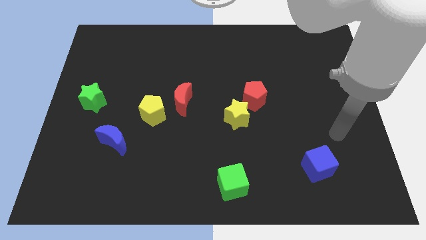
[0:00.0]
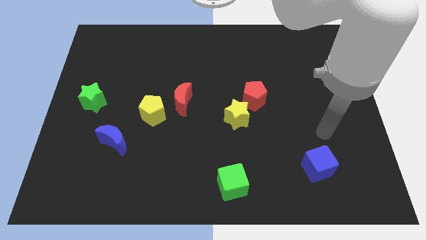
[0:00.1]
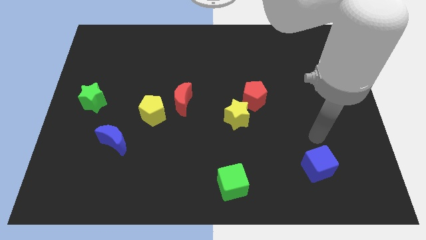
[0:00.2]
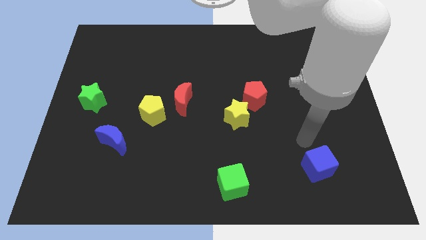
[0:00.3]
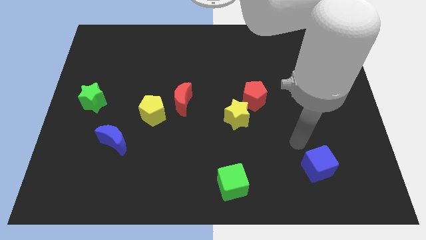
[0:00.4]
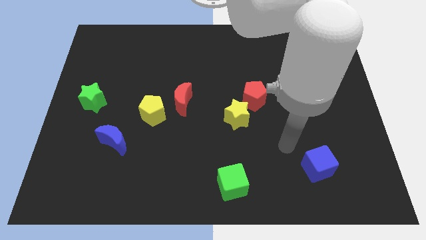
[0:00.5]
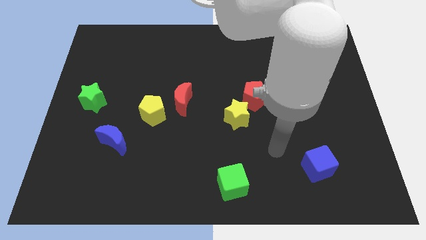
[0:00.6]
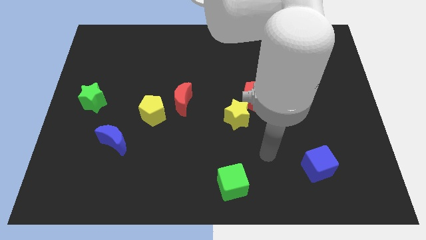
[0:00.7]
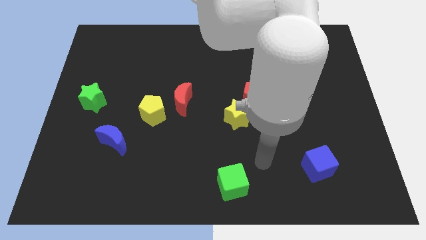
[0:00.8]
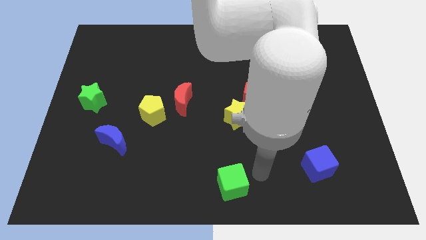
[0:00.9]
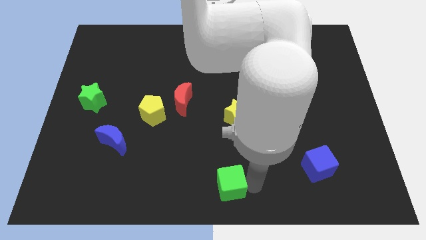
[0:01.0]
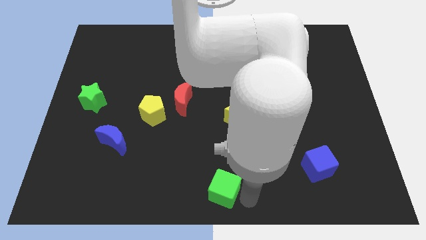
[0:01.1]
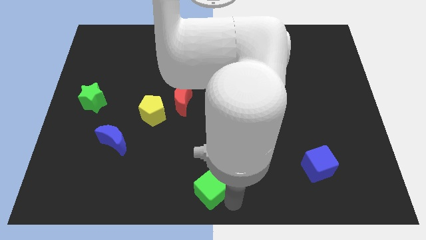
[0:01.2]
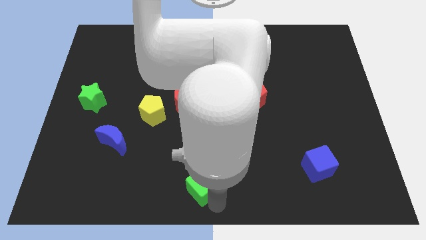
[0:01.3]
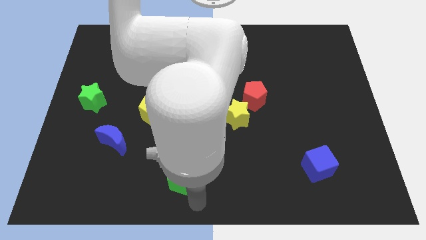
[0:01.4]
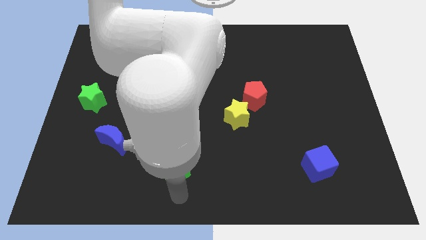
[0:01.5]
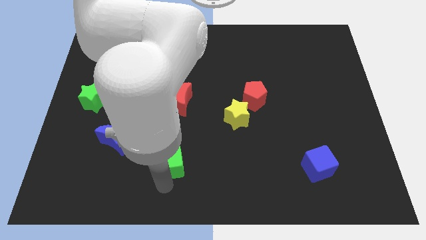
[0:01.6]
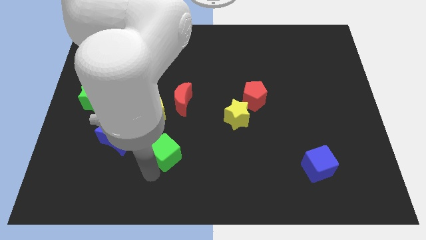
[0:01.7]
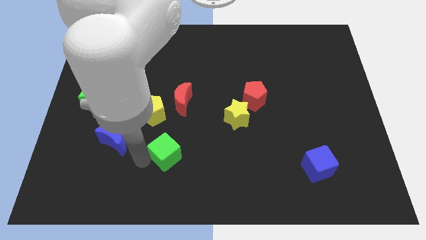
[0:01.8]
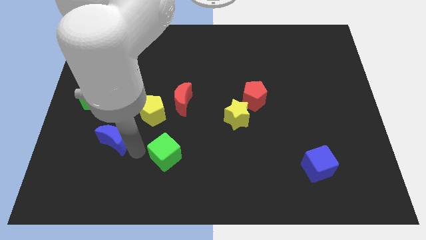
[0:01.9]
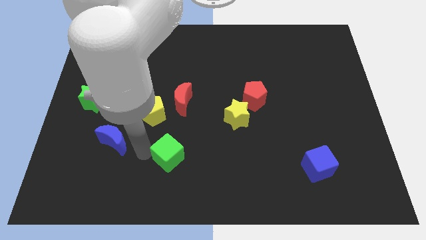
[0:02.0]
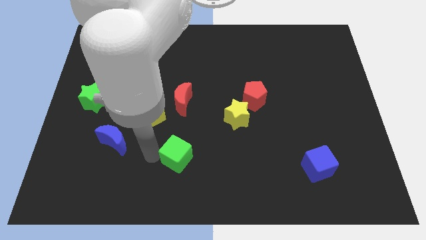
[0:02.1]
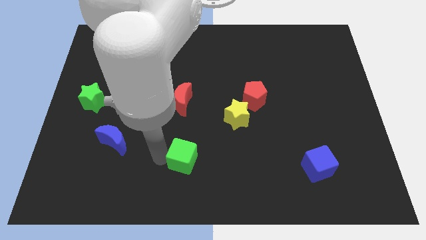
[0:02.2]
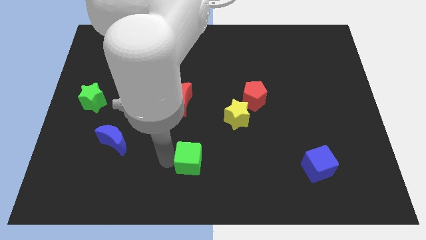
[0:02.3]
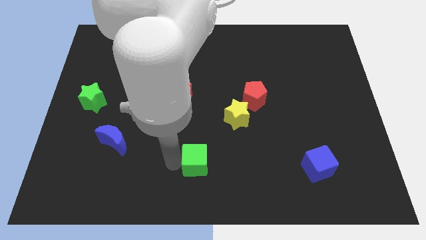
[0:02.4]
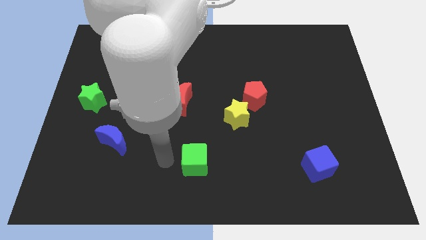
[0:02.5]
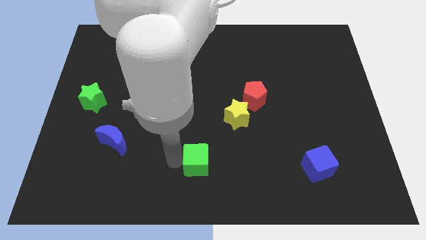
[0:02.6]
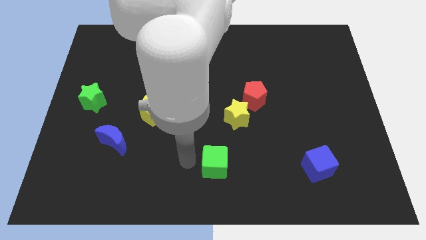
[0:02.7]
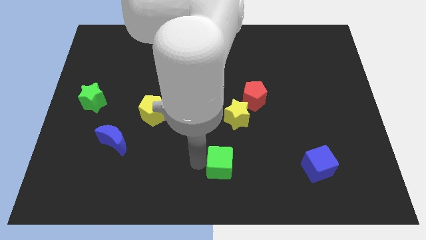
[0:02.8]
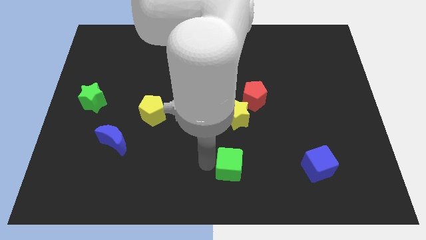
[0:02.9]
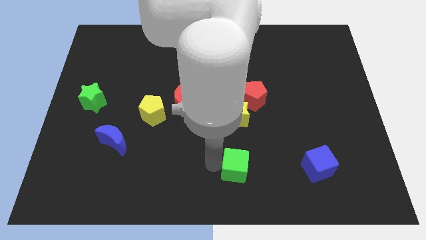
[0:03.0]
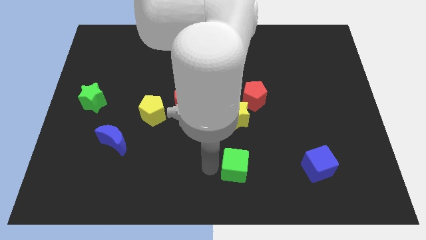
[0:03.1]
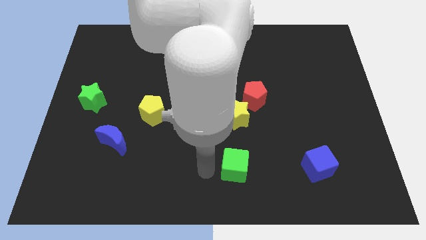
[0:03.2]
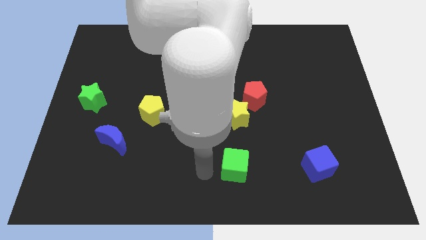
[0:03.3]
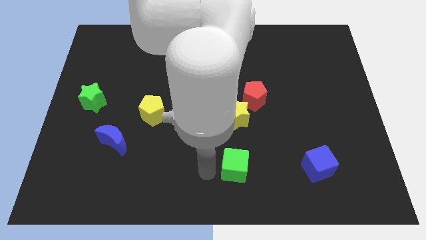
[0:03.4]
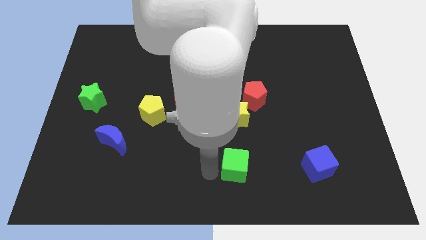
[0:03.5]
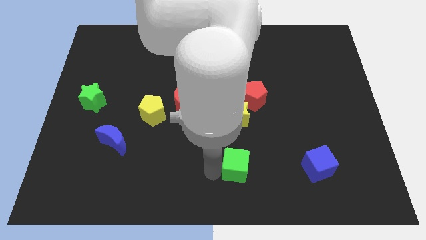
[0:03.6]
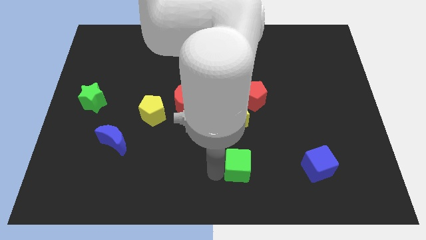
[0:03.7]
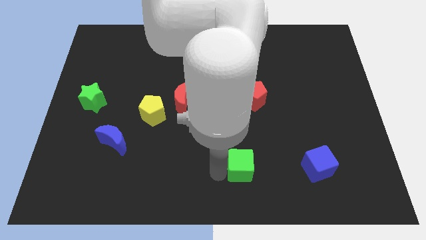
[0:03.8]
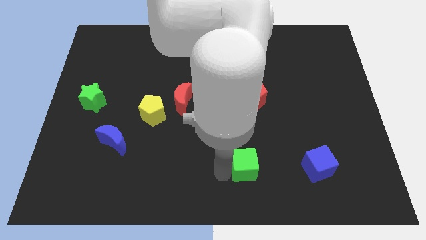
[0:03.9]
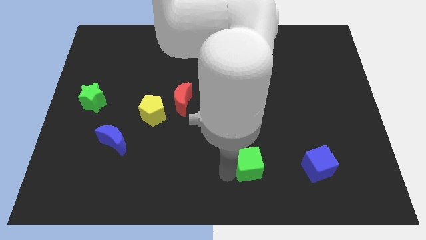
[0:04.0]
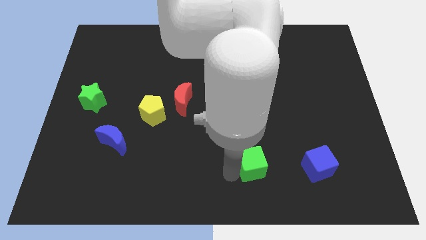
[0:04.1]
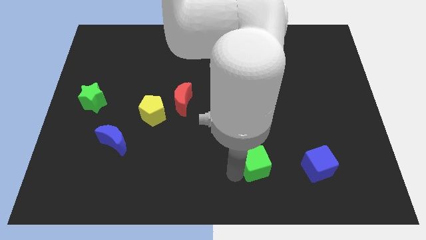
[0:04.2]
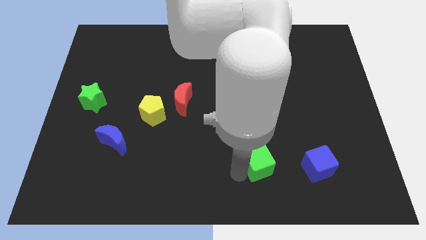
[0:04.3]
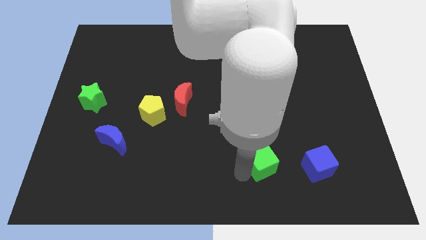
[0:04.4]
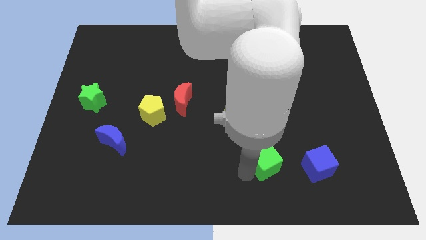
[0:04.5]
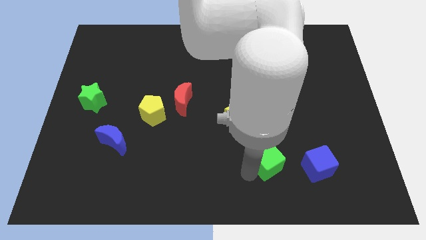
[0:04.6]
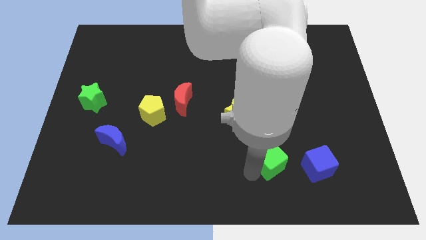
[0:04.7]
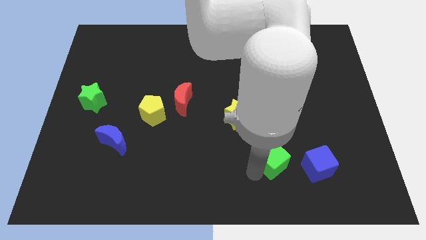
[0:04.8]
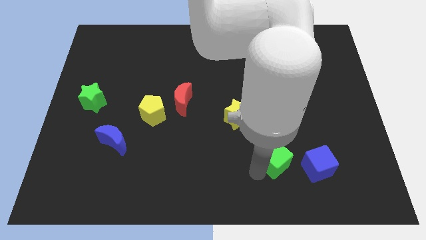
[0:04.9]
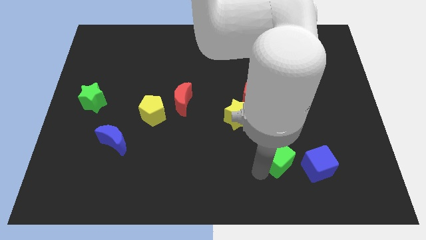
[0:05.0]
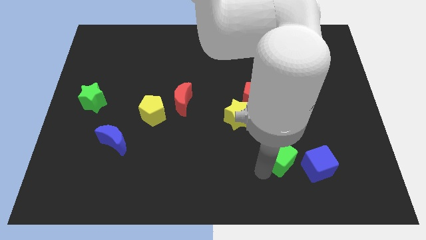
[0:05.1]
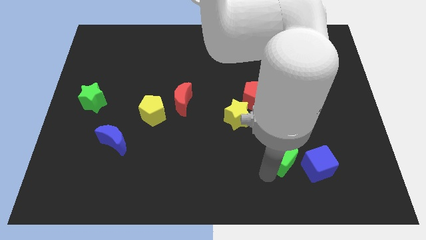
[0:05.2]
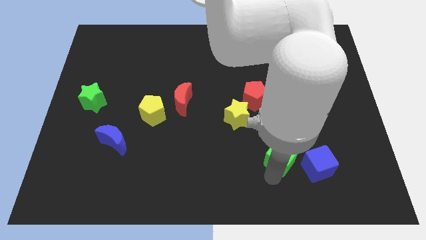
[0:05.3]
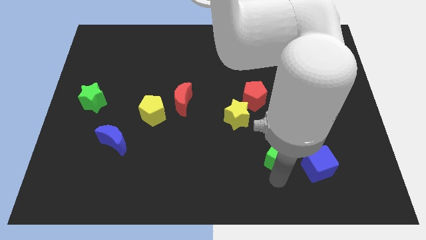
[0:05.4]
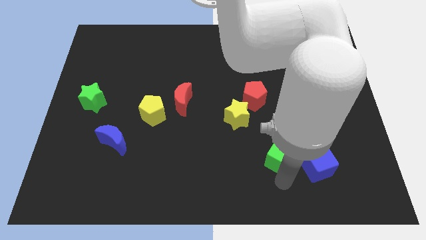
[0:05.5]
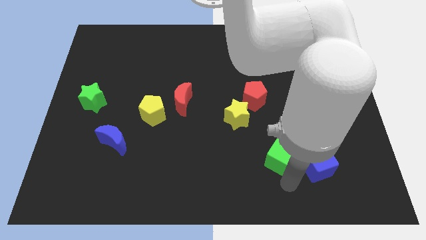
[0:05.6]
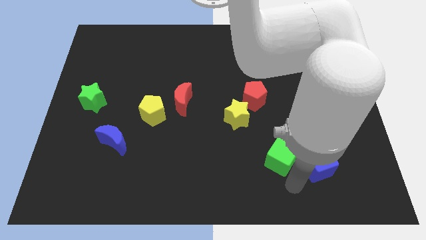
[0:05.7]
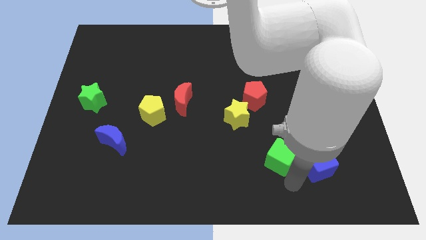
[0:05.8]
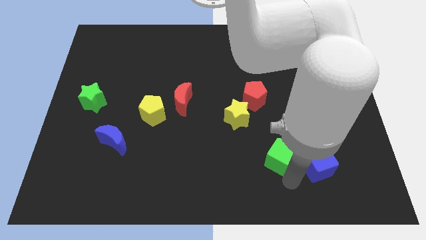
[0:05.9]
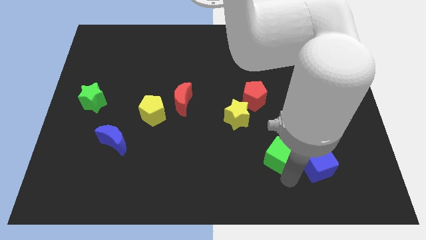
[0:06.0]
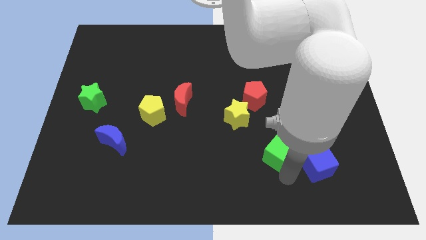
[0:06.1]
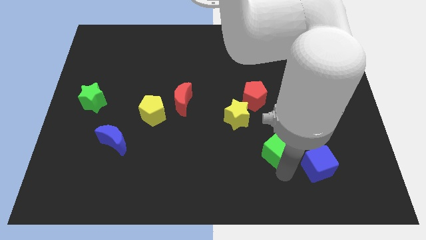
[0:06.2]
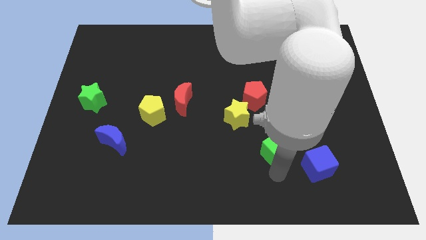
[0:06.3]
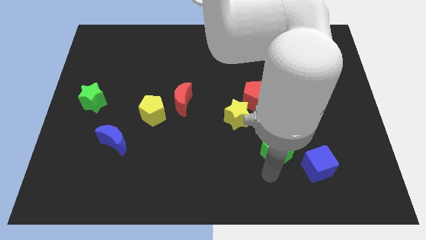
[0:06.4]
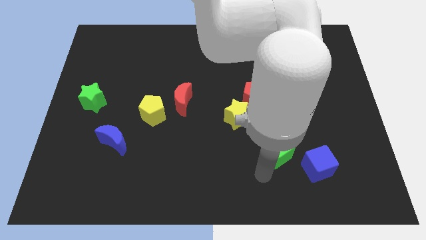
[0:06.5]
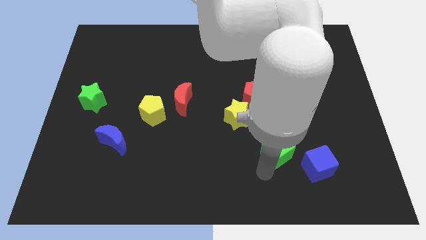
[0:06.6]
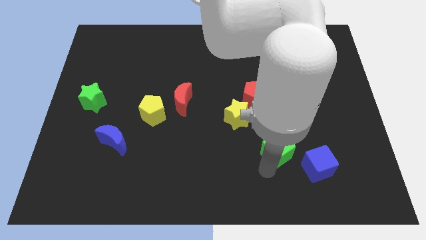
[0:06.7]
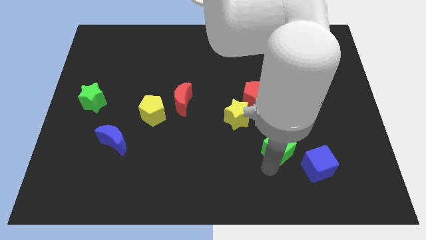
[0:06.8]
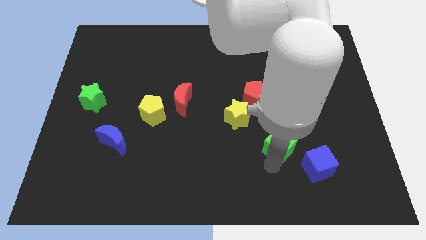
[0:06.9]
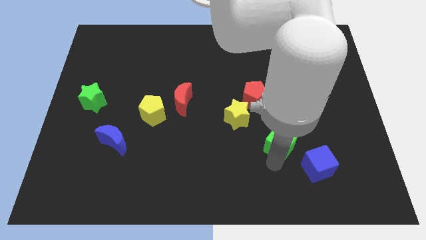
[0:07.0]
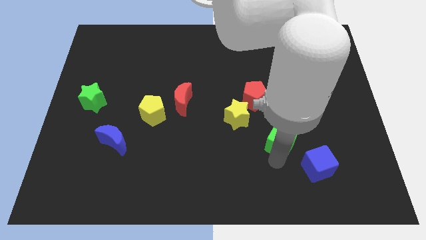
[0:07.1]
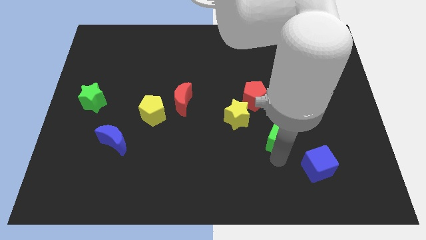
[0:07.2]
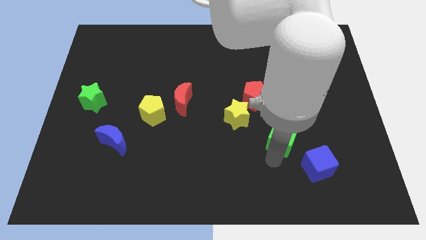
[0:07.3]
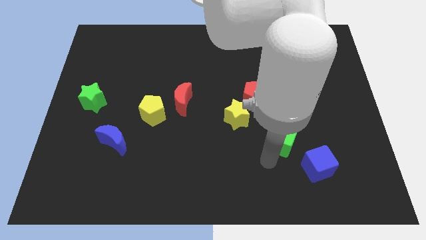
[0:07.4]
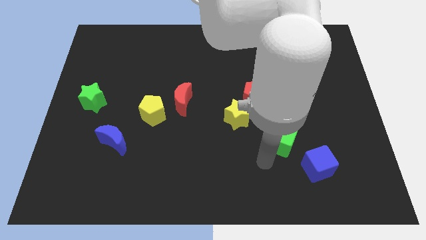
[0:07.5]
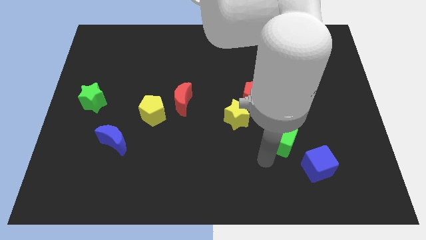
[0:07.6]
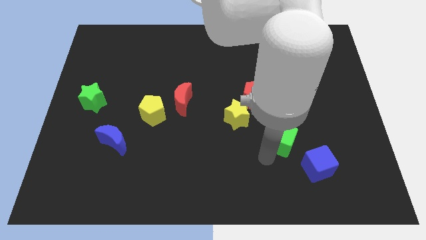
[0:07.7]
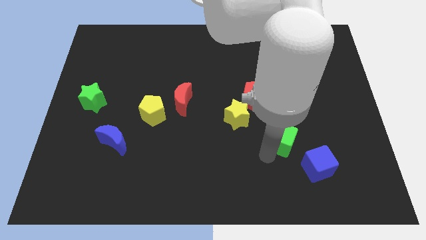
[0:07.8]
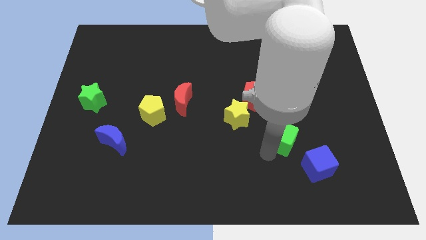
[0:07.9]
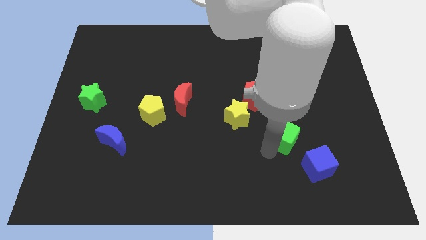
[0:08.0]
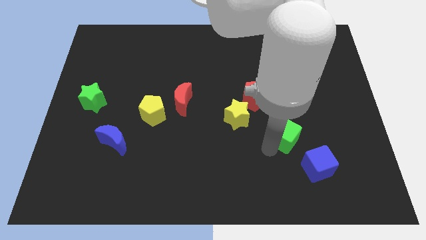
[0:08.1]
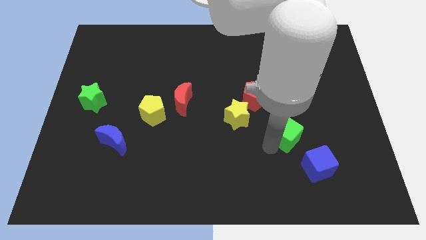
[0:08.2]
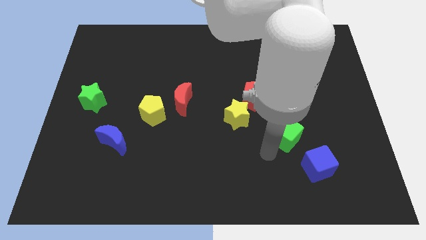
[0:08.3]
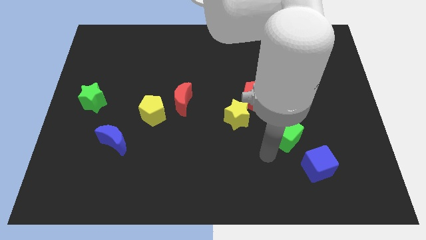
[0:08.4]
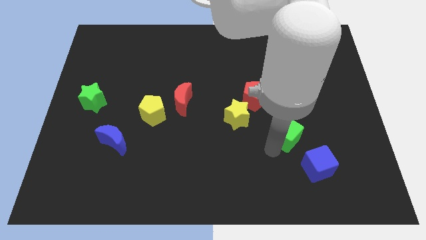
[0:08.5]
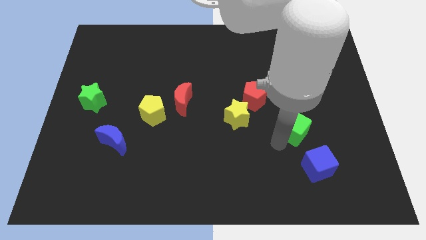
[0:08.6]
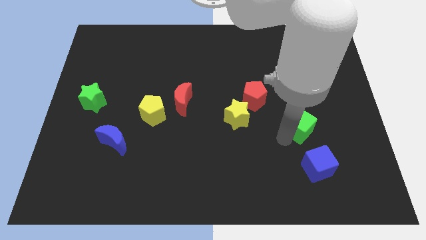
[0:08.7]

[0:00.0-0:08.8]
slide the green cube diagonally upwards and to the right
